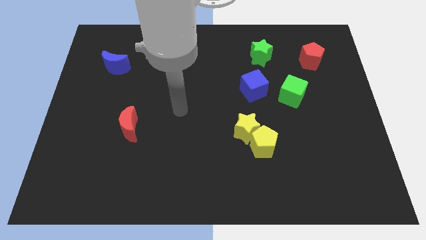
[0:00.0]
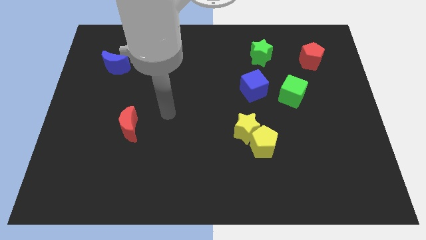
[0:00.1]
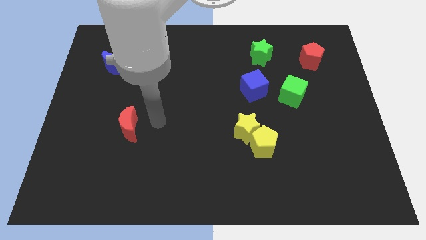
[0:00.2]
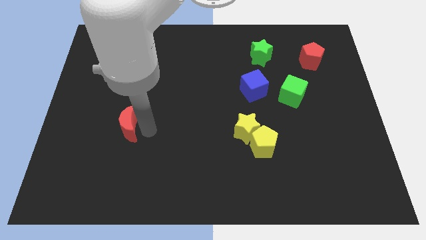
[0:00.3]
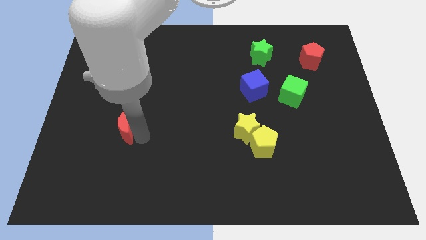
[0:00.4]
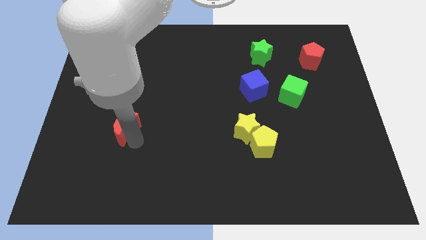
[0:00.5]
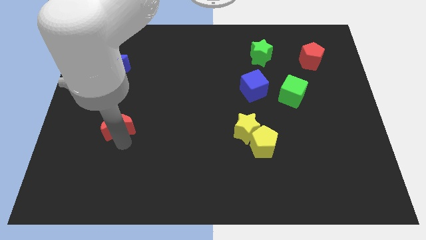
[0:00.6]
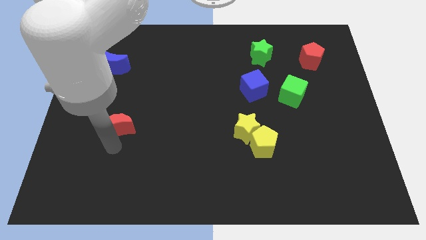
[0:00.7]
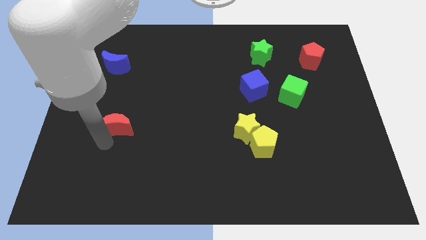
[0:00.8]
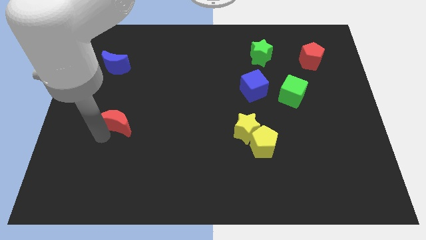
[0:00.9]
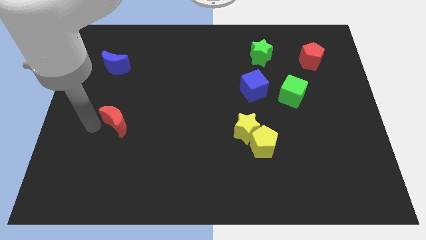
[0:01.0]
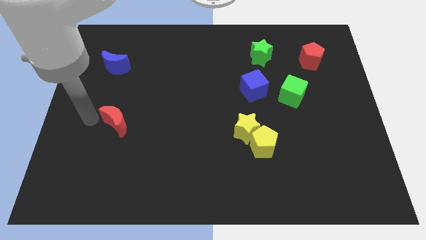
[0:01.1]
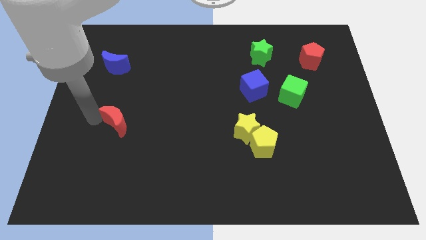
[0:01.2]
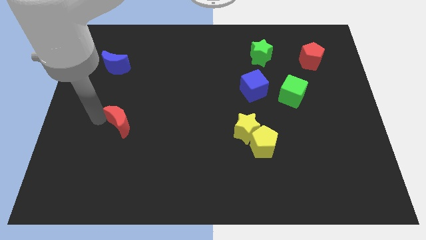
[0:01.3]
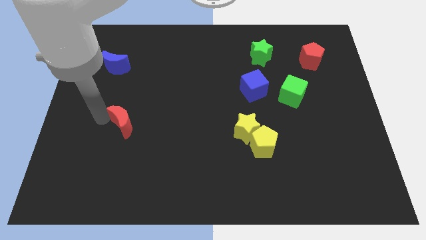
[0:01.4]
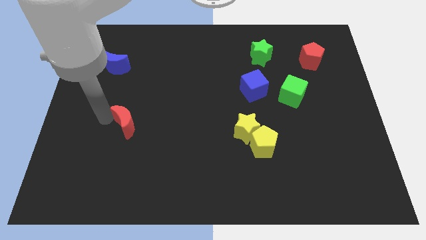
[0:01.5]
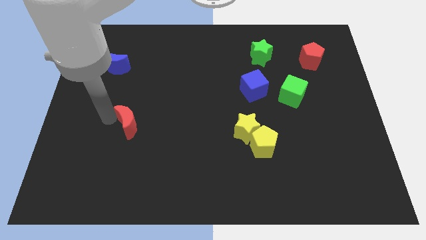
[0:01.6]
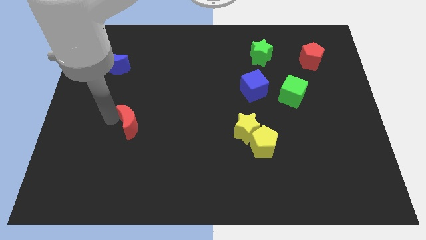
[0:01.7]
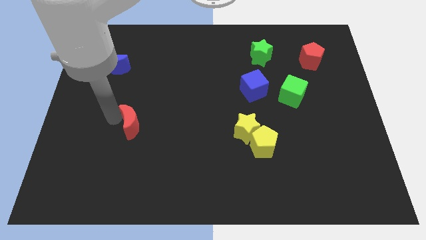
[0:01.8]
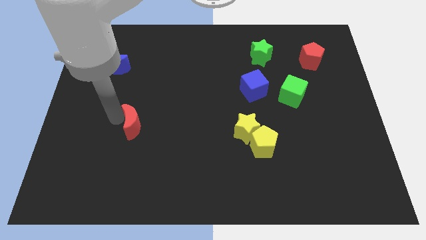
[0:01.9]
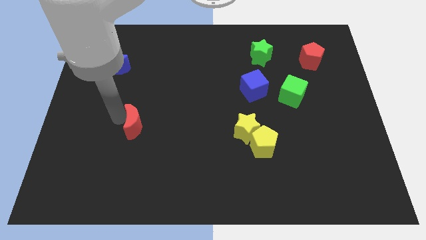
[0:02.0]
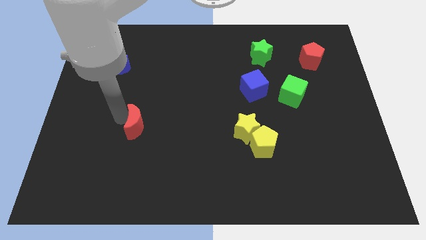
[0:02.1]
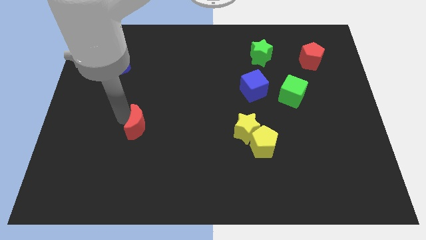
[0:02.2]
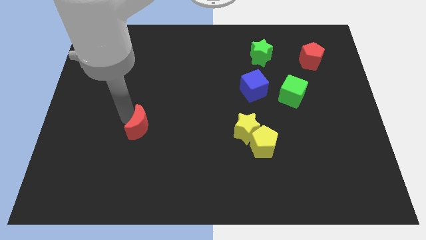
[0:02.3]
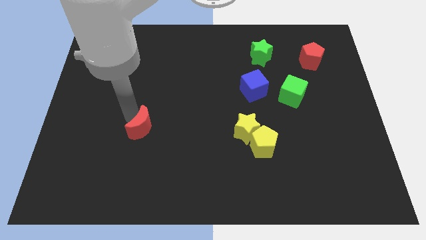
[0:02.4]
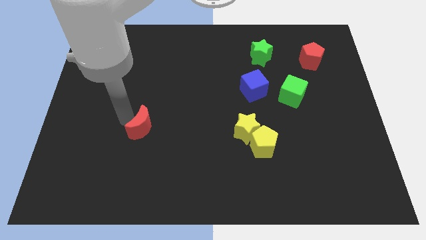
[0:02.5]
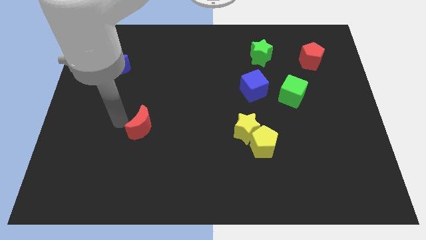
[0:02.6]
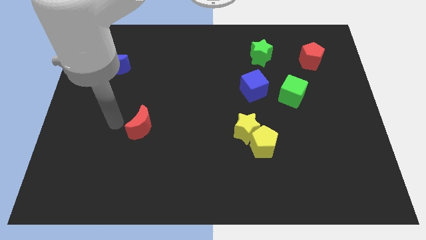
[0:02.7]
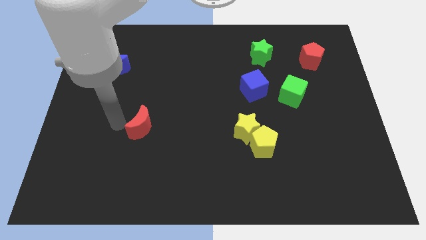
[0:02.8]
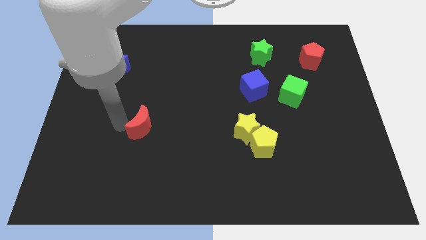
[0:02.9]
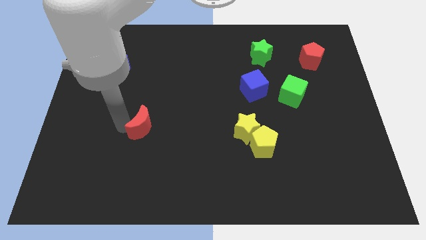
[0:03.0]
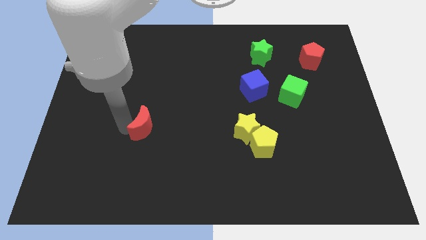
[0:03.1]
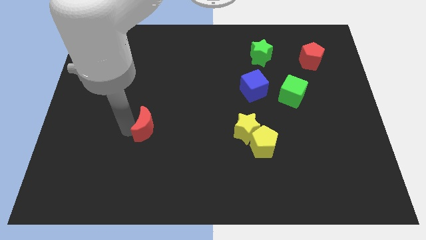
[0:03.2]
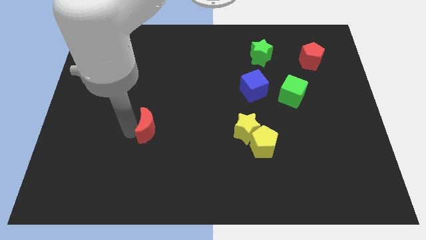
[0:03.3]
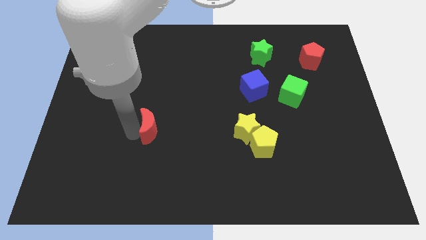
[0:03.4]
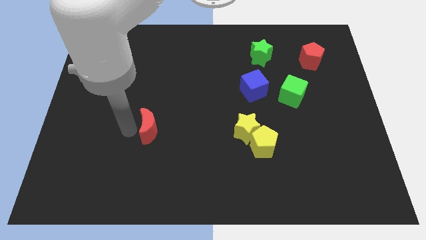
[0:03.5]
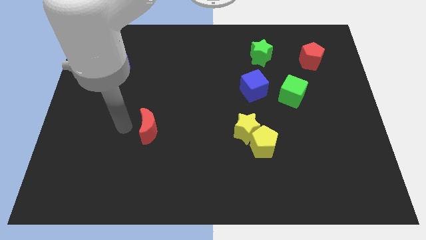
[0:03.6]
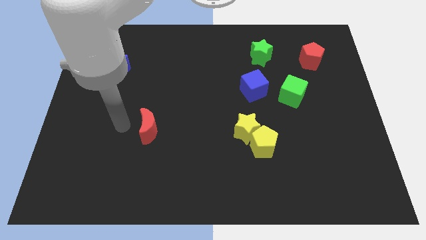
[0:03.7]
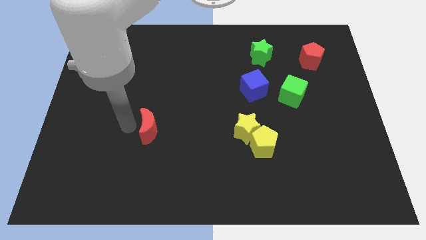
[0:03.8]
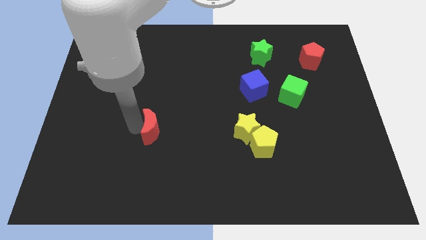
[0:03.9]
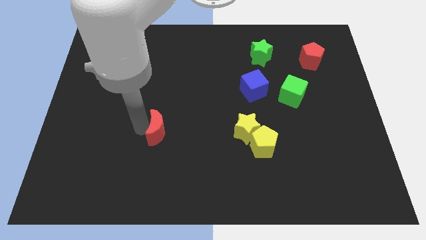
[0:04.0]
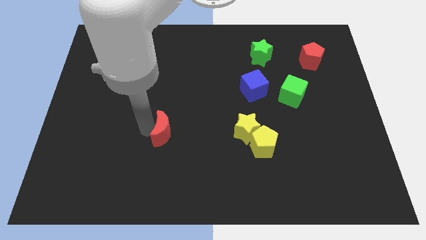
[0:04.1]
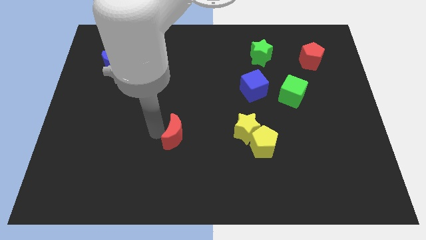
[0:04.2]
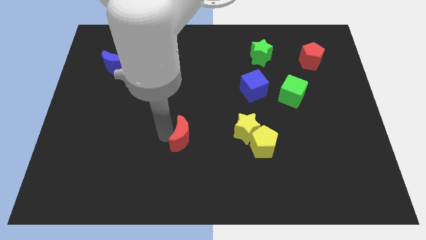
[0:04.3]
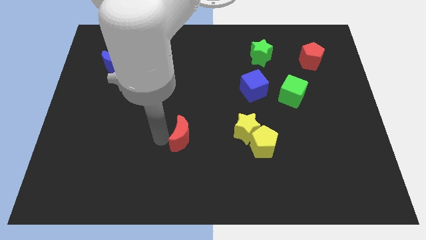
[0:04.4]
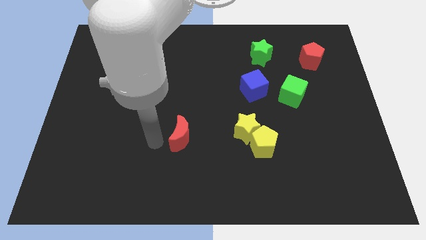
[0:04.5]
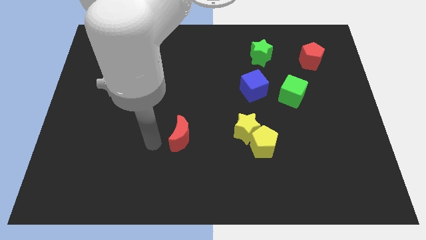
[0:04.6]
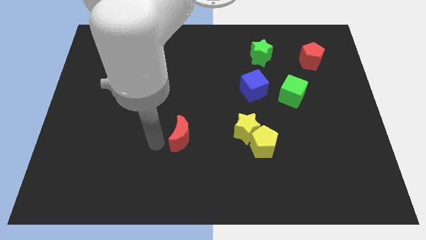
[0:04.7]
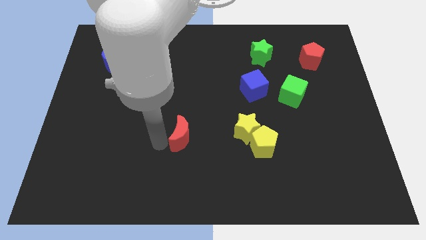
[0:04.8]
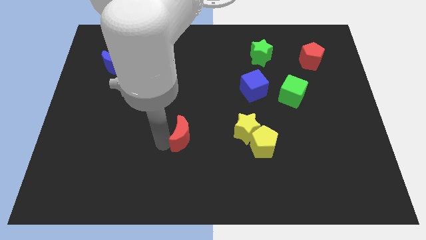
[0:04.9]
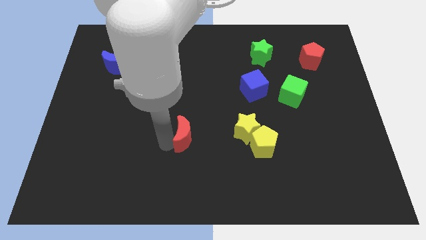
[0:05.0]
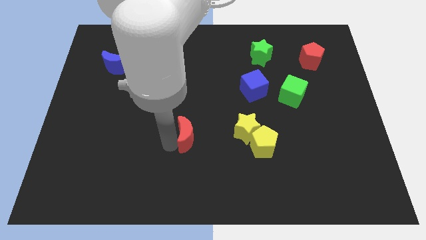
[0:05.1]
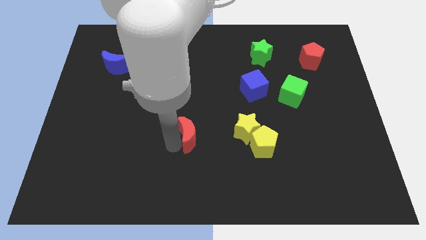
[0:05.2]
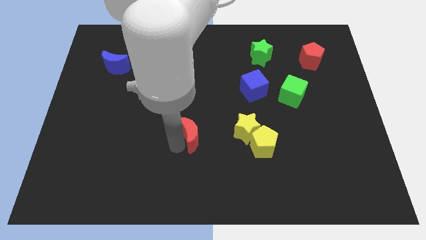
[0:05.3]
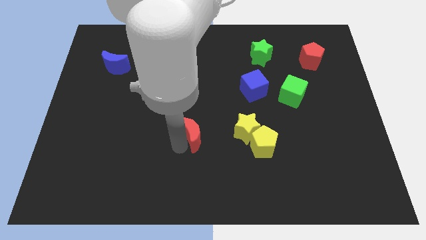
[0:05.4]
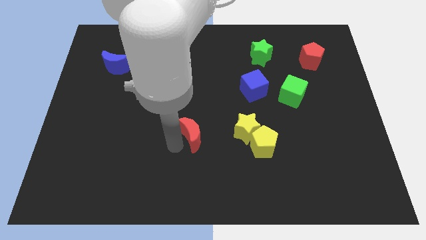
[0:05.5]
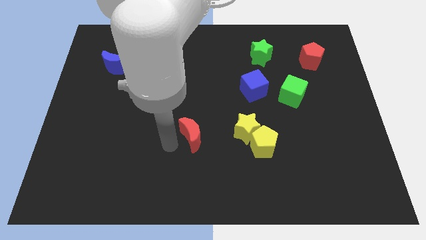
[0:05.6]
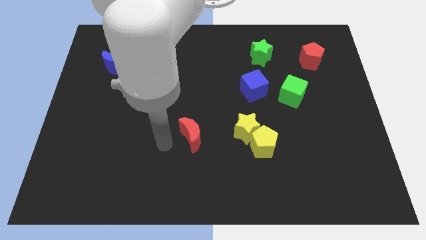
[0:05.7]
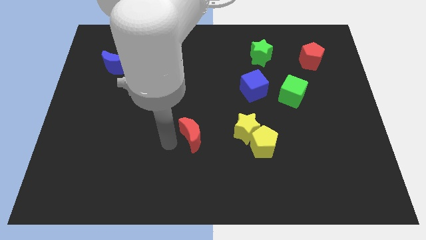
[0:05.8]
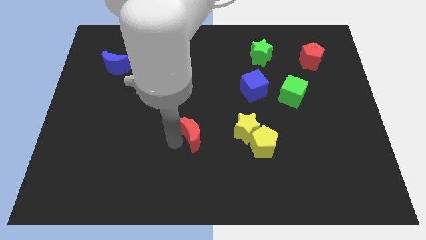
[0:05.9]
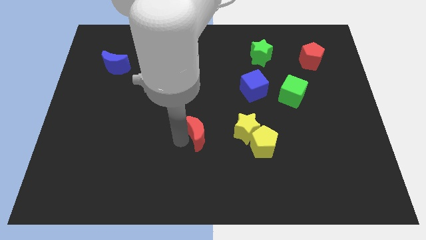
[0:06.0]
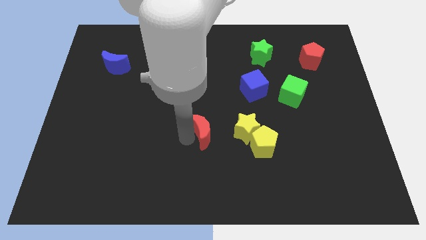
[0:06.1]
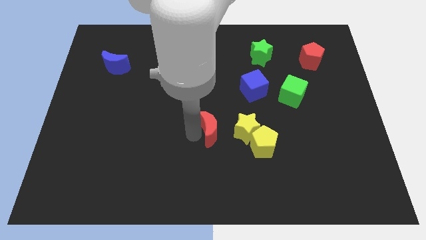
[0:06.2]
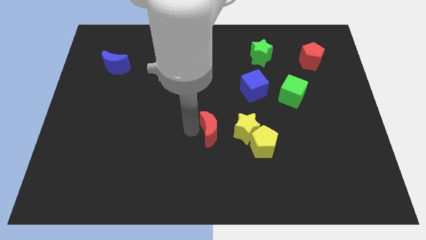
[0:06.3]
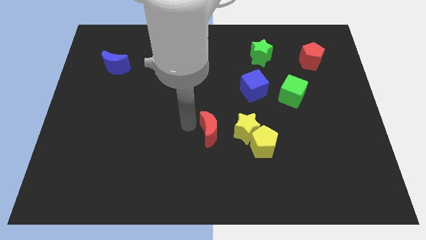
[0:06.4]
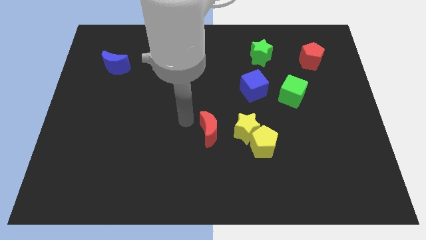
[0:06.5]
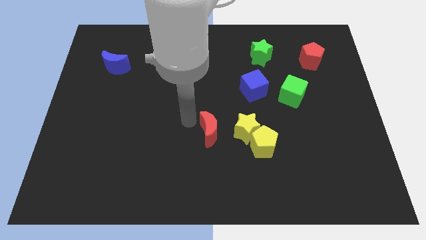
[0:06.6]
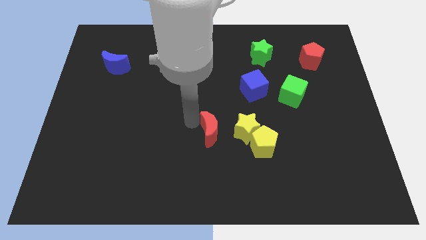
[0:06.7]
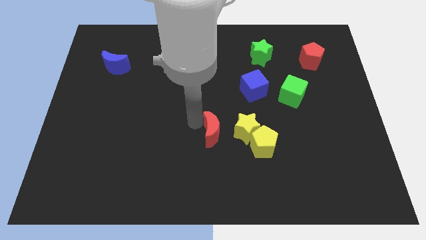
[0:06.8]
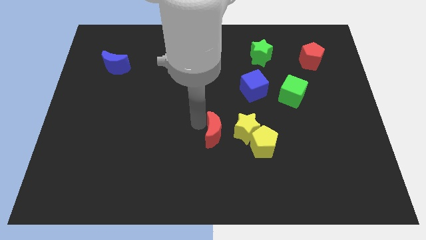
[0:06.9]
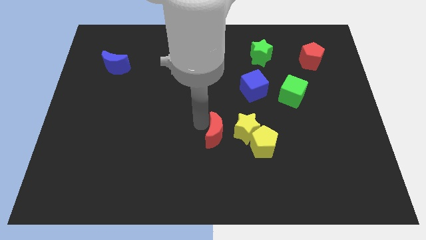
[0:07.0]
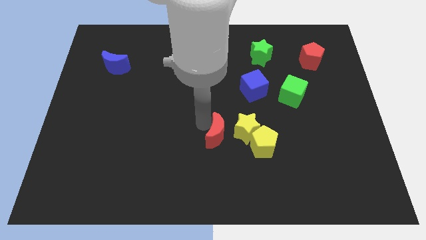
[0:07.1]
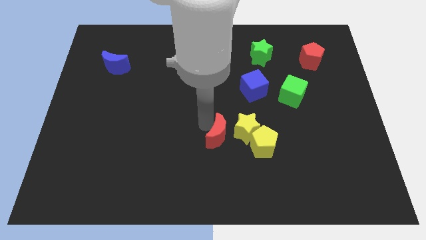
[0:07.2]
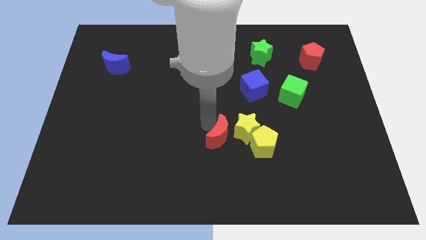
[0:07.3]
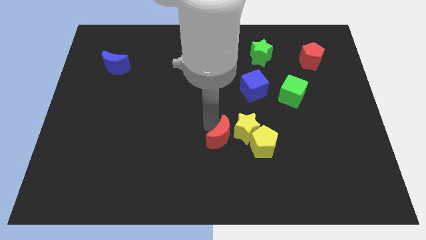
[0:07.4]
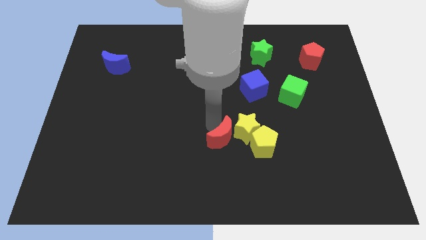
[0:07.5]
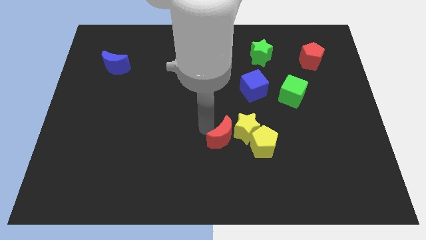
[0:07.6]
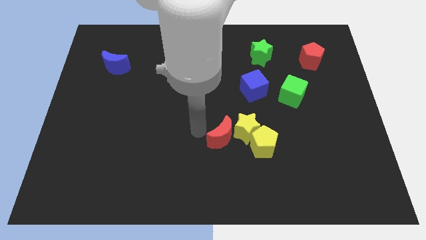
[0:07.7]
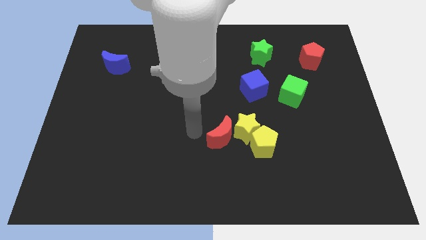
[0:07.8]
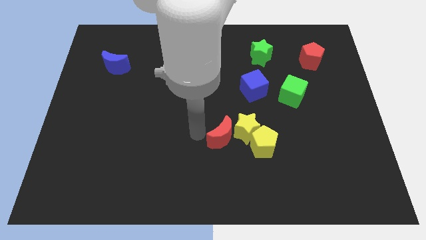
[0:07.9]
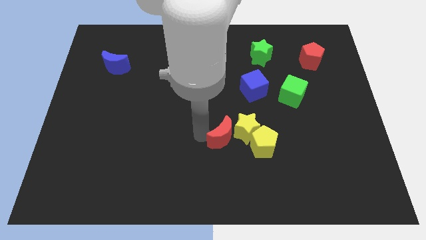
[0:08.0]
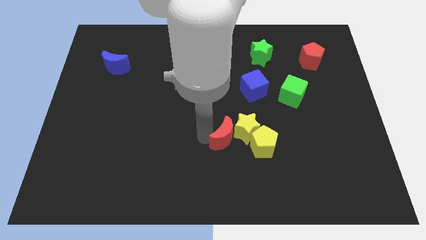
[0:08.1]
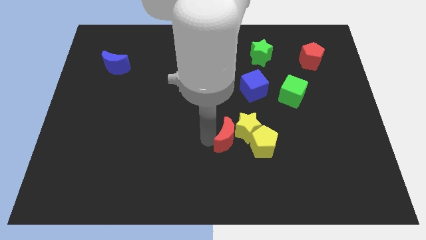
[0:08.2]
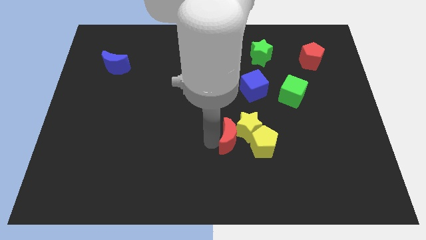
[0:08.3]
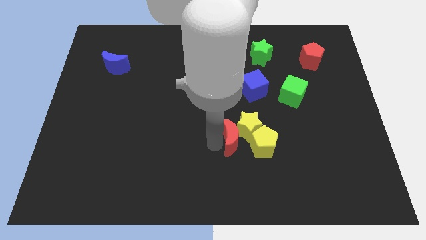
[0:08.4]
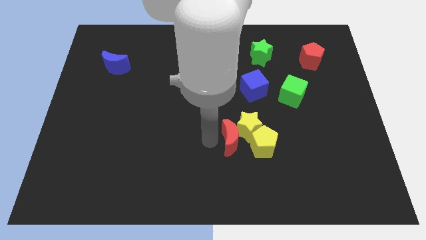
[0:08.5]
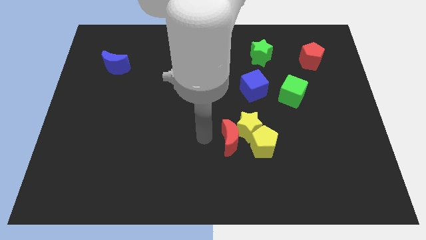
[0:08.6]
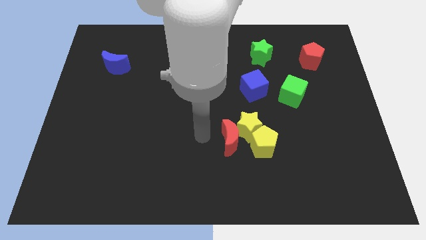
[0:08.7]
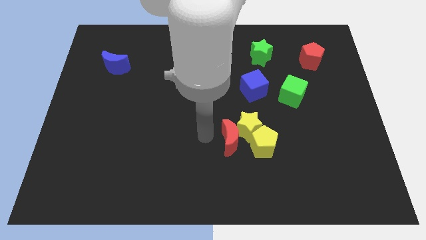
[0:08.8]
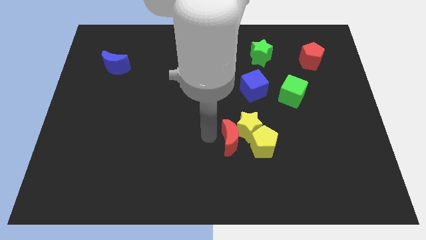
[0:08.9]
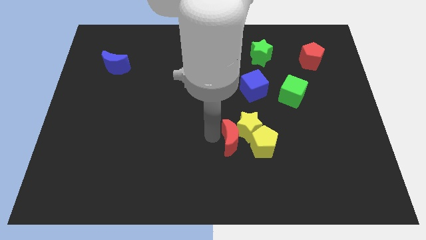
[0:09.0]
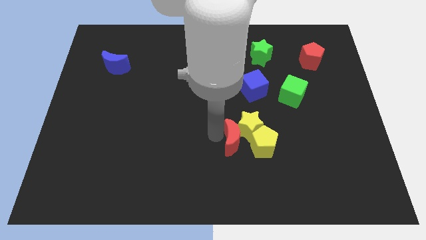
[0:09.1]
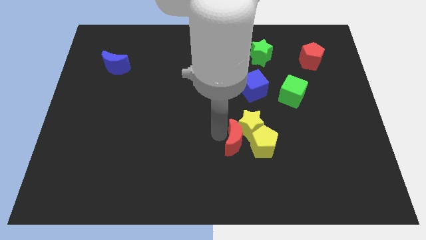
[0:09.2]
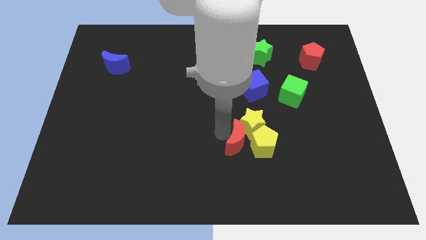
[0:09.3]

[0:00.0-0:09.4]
slide the red moon next to the yellow pentagon
